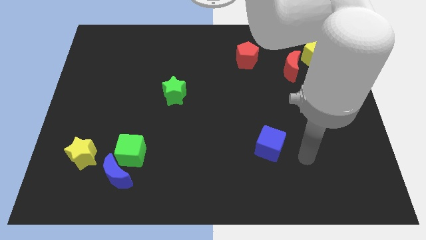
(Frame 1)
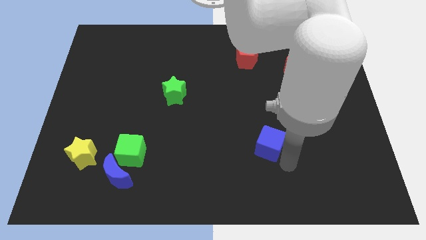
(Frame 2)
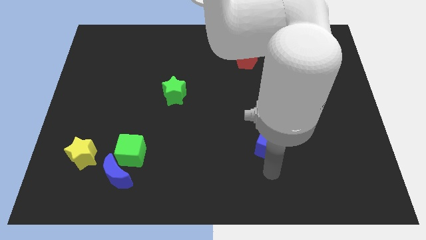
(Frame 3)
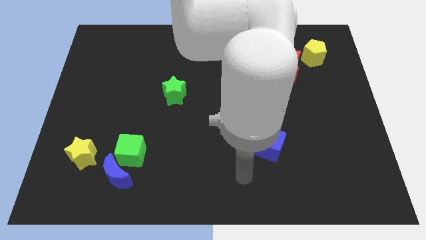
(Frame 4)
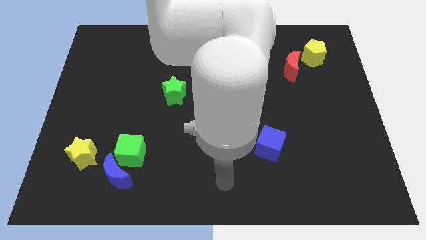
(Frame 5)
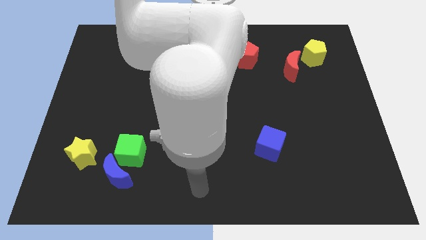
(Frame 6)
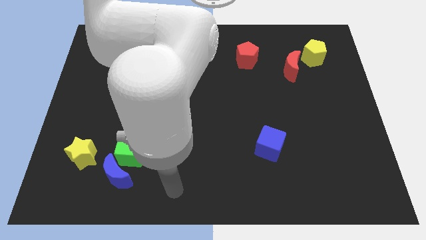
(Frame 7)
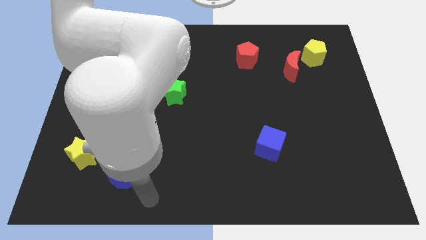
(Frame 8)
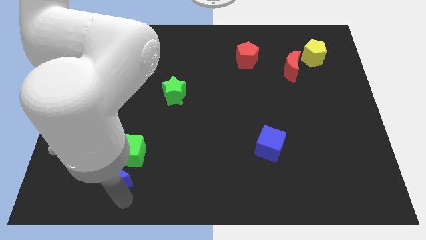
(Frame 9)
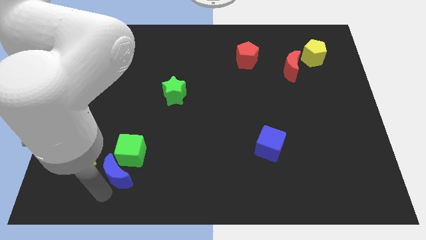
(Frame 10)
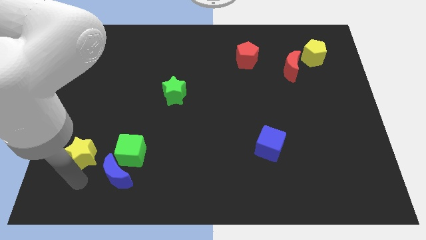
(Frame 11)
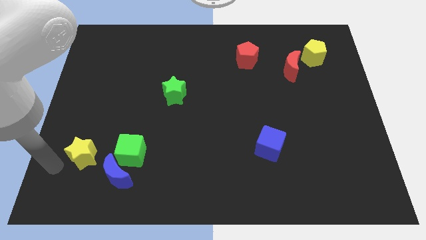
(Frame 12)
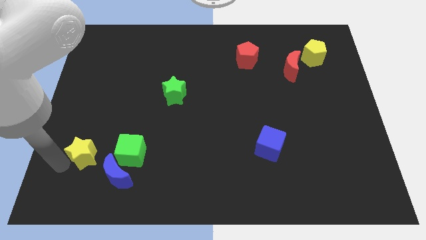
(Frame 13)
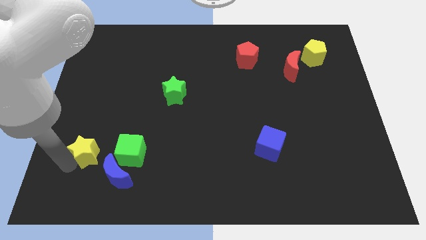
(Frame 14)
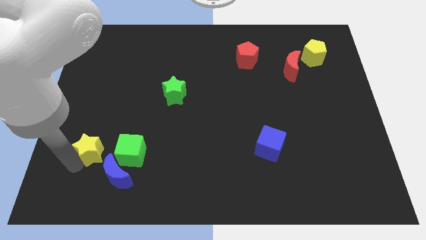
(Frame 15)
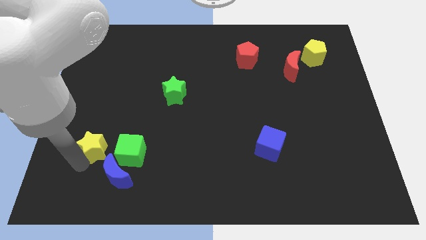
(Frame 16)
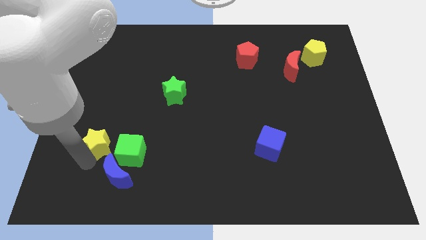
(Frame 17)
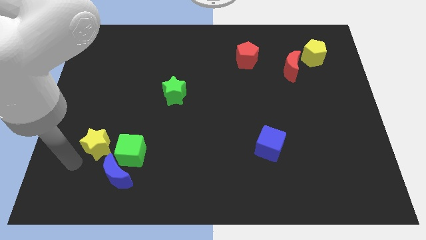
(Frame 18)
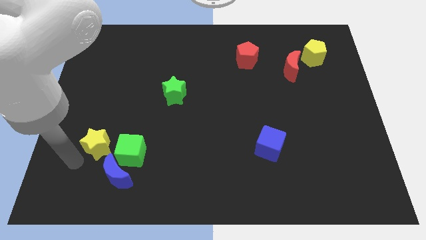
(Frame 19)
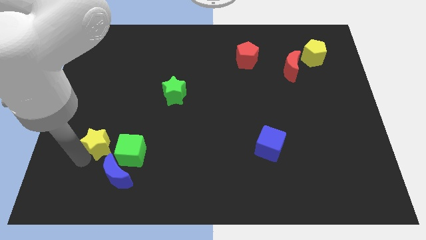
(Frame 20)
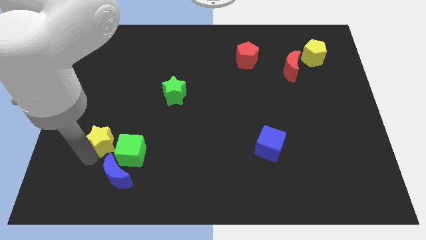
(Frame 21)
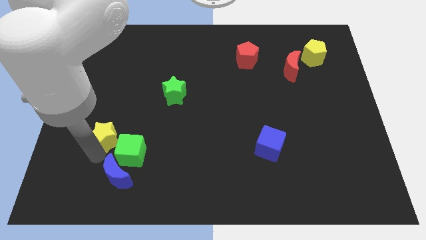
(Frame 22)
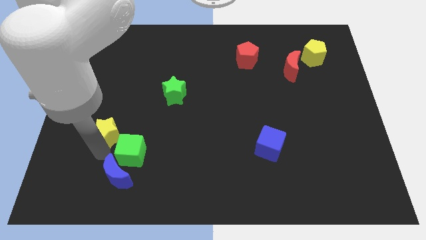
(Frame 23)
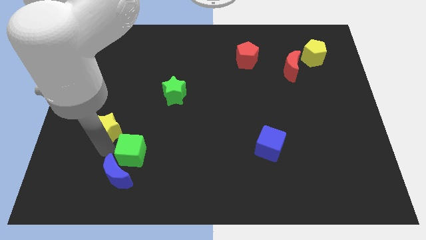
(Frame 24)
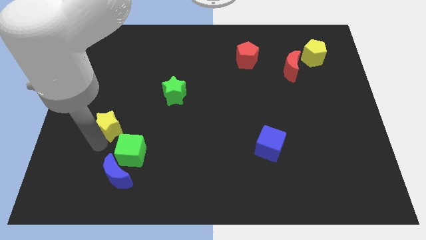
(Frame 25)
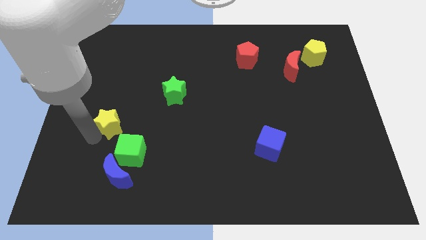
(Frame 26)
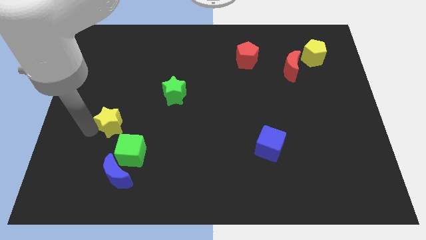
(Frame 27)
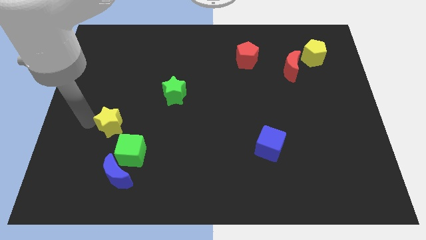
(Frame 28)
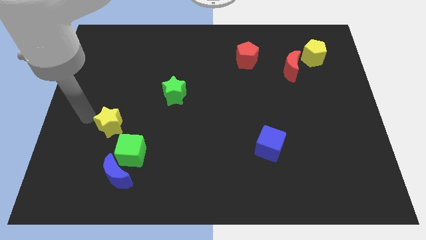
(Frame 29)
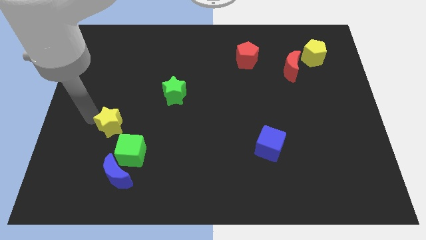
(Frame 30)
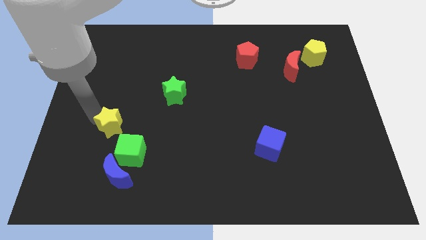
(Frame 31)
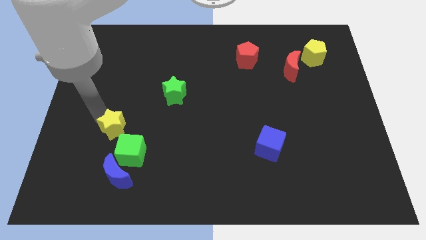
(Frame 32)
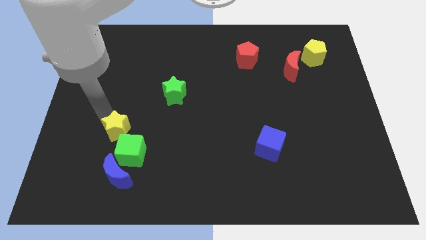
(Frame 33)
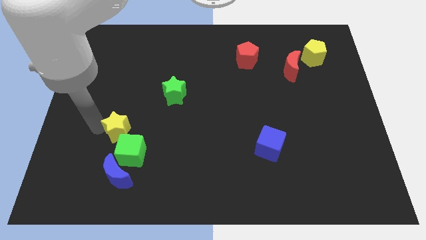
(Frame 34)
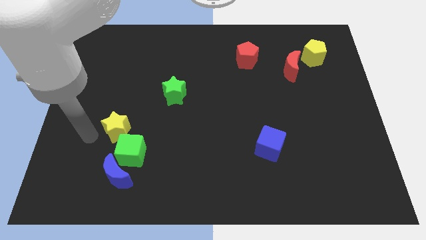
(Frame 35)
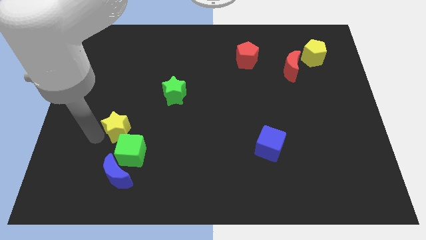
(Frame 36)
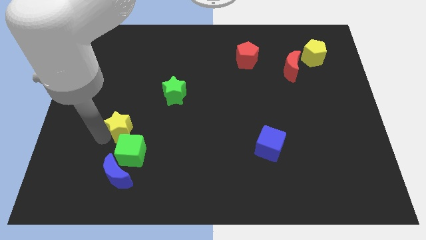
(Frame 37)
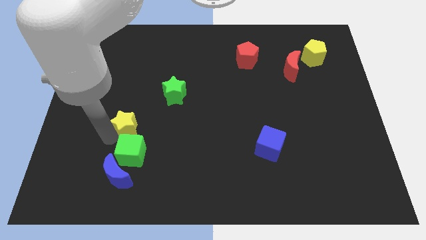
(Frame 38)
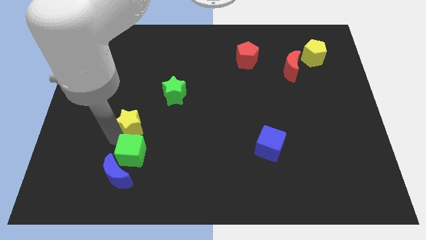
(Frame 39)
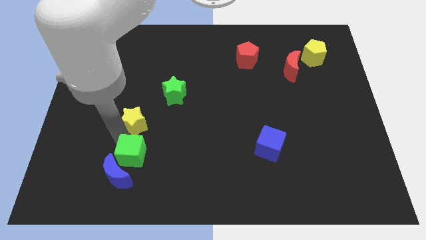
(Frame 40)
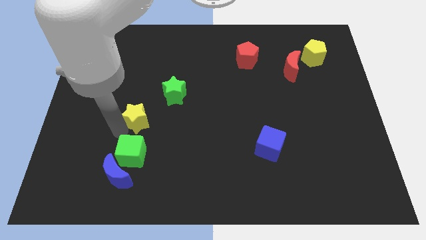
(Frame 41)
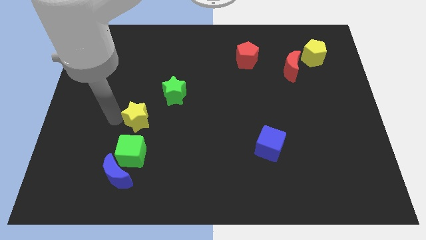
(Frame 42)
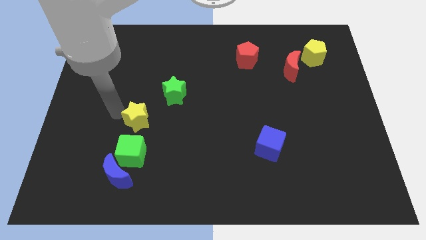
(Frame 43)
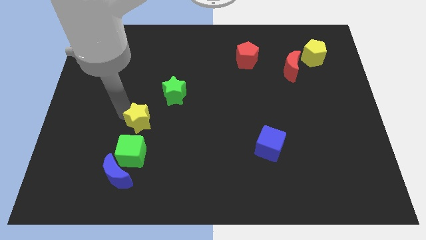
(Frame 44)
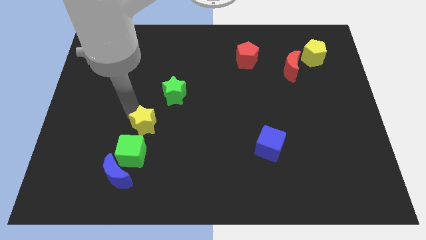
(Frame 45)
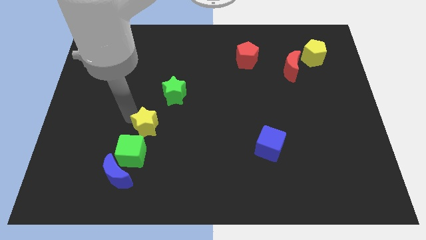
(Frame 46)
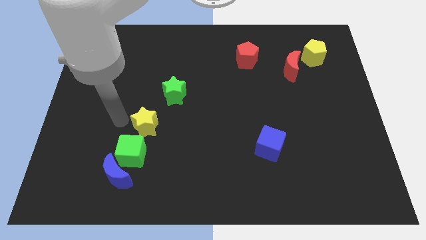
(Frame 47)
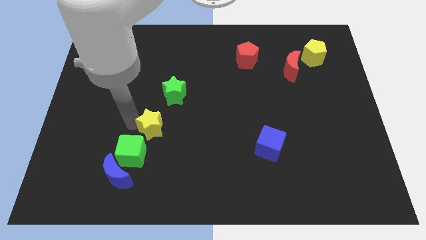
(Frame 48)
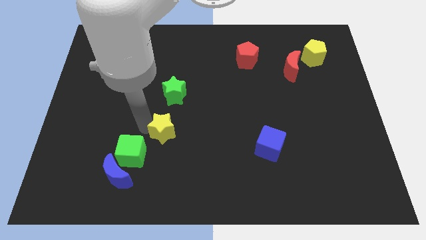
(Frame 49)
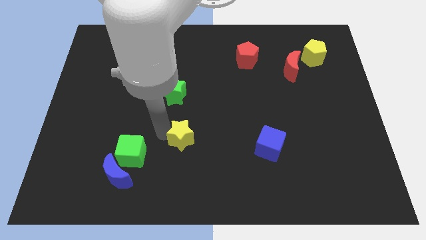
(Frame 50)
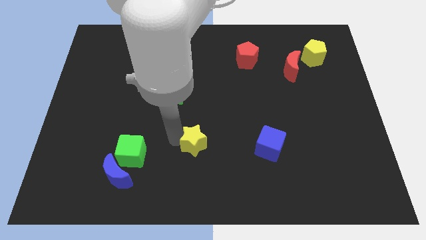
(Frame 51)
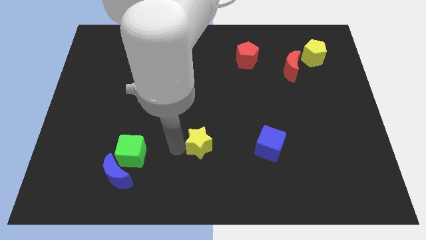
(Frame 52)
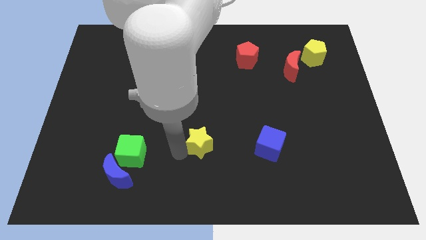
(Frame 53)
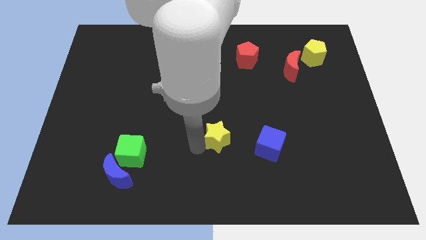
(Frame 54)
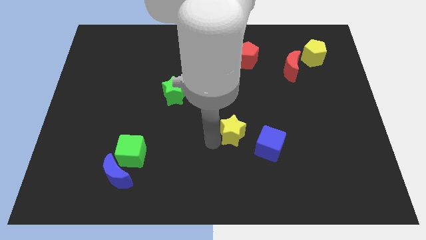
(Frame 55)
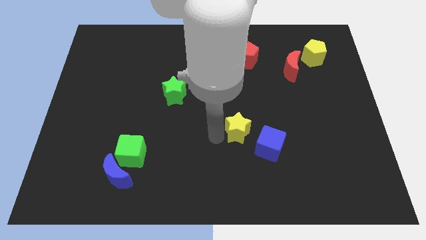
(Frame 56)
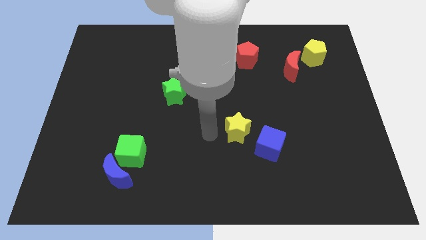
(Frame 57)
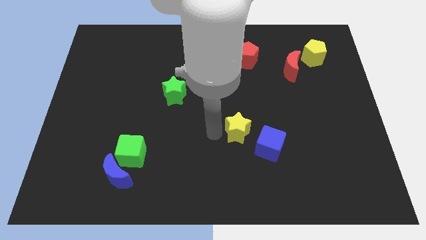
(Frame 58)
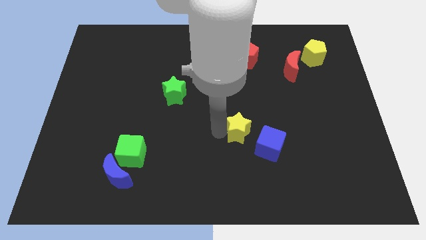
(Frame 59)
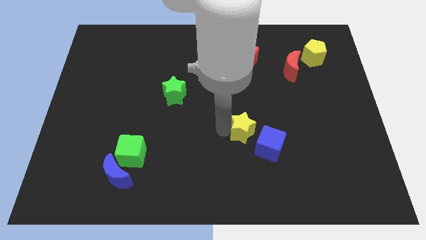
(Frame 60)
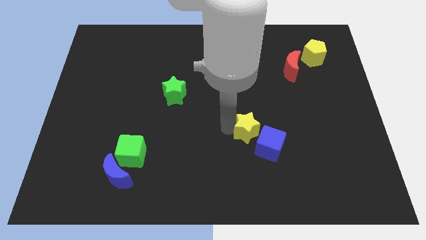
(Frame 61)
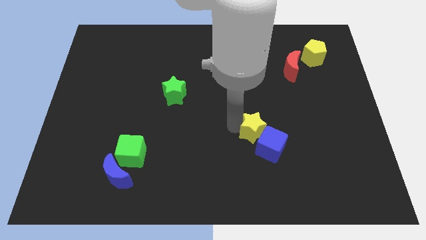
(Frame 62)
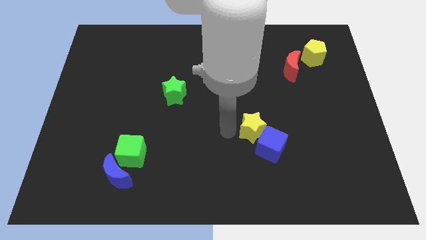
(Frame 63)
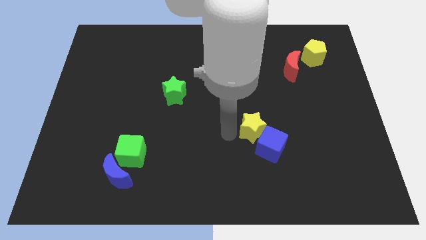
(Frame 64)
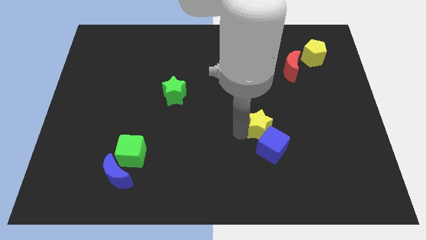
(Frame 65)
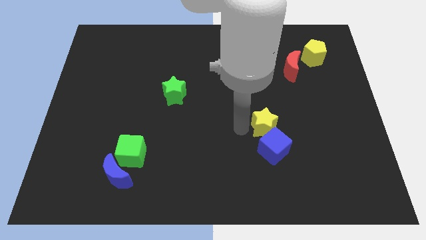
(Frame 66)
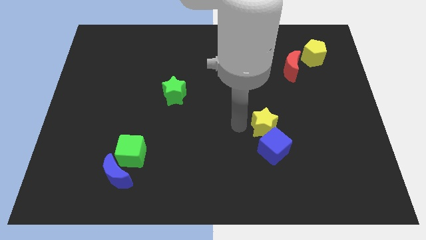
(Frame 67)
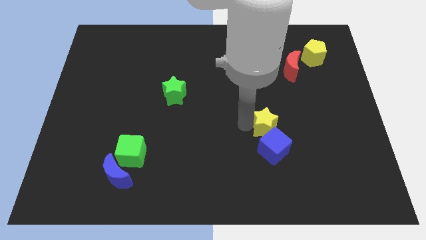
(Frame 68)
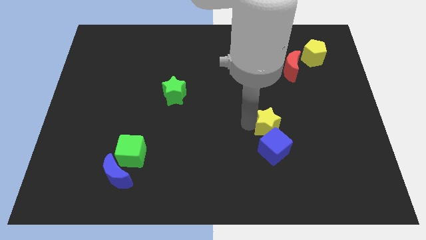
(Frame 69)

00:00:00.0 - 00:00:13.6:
put the yellow star diagonally up and to the right of the blue cube
